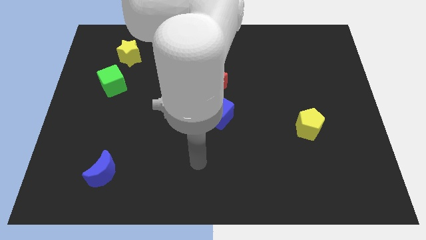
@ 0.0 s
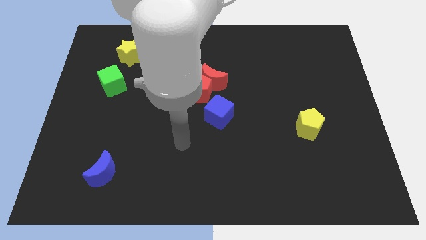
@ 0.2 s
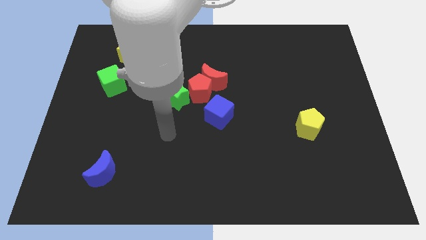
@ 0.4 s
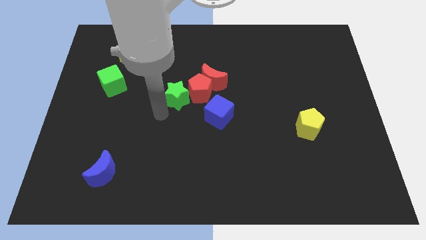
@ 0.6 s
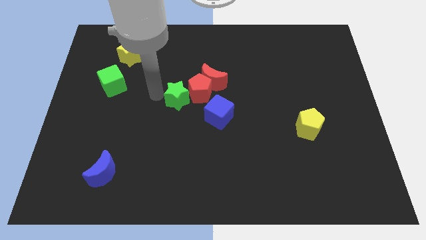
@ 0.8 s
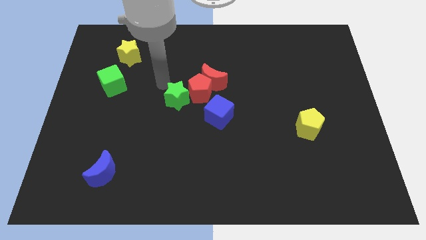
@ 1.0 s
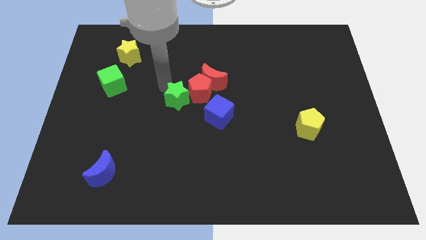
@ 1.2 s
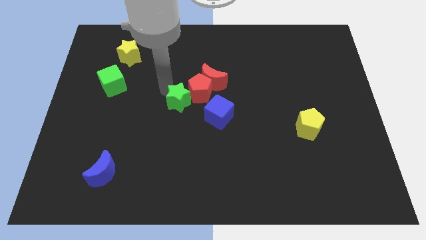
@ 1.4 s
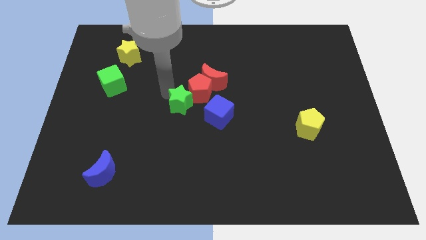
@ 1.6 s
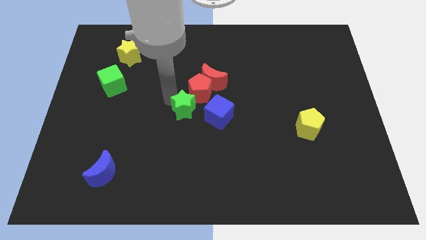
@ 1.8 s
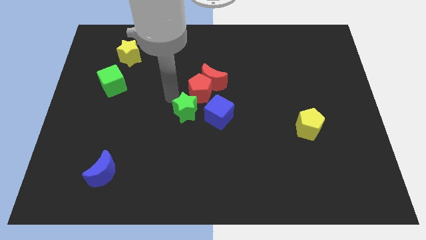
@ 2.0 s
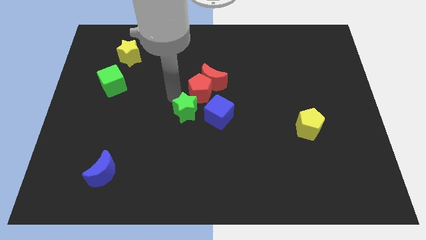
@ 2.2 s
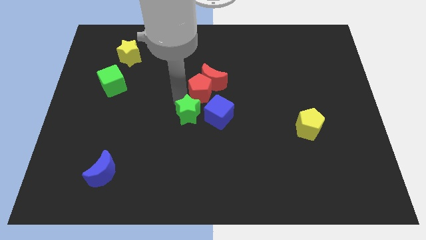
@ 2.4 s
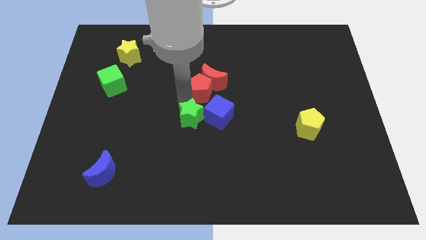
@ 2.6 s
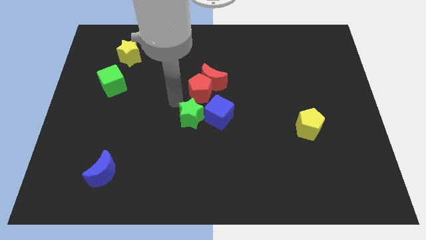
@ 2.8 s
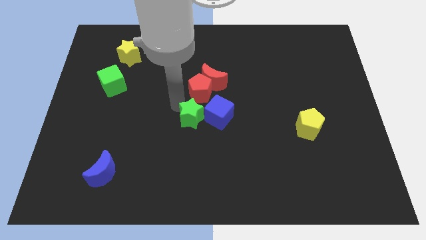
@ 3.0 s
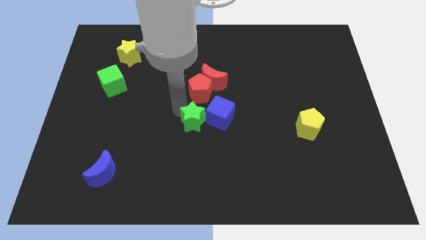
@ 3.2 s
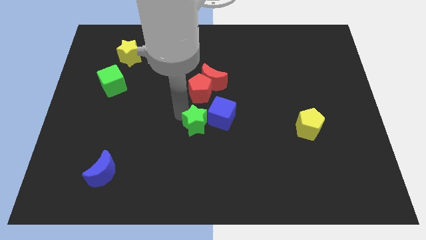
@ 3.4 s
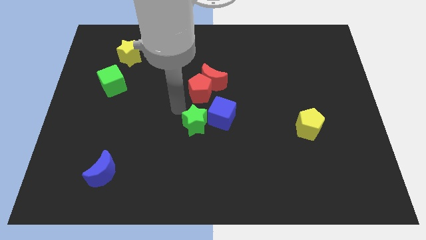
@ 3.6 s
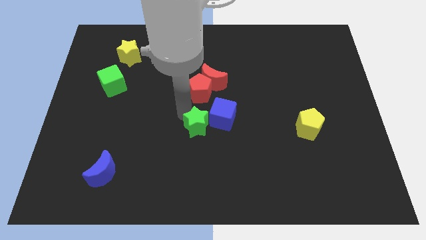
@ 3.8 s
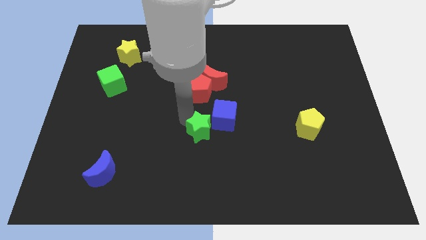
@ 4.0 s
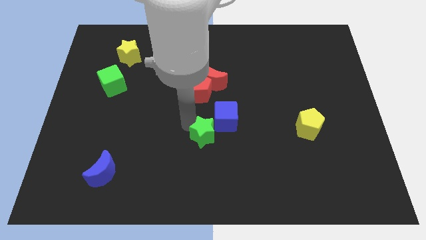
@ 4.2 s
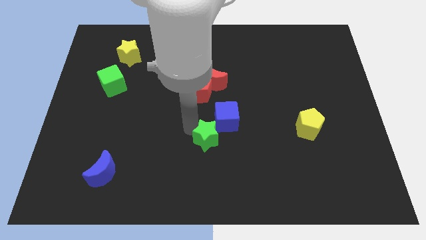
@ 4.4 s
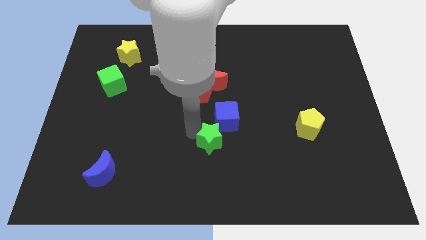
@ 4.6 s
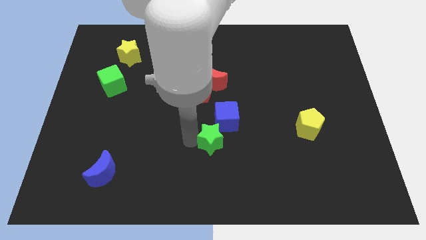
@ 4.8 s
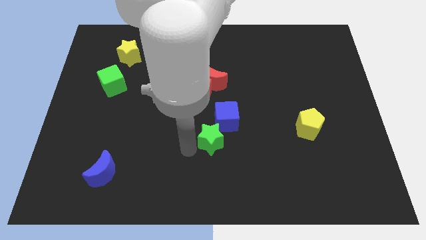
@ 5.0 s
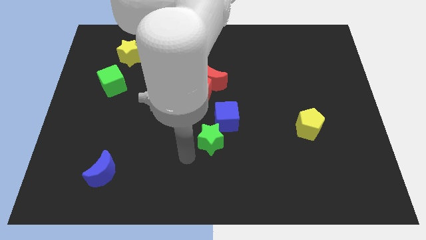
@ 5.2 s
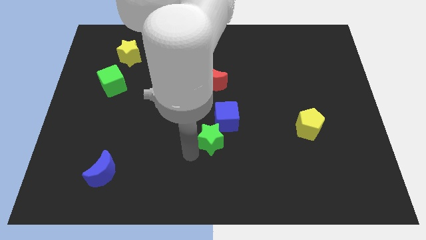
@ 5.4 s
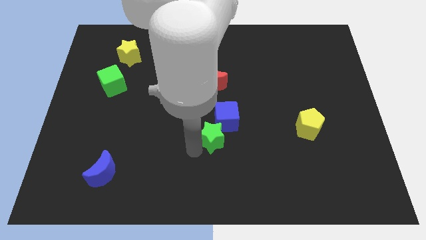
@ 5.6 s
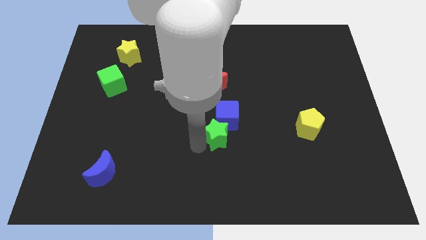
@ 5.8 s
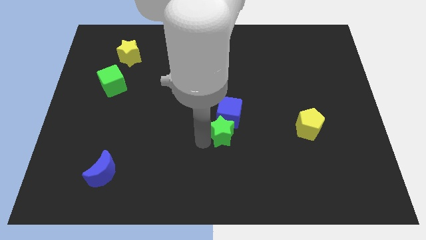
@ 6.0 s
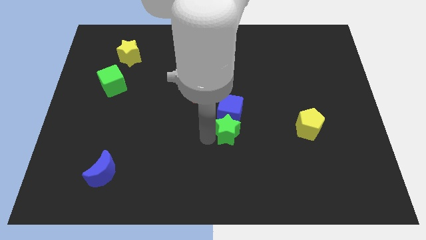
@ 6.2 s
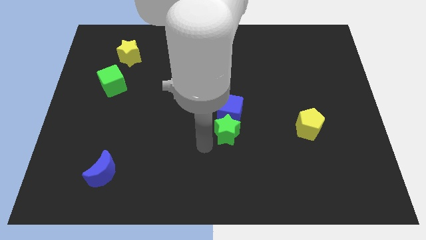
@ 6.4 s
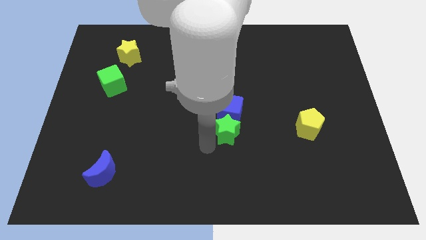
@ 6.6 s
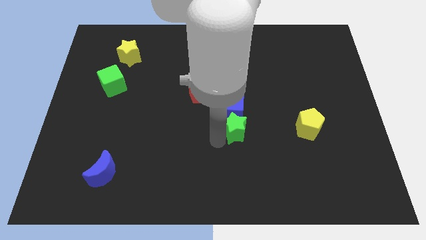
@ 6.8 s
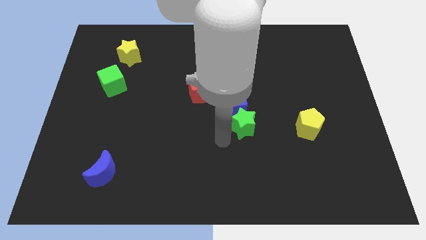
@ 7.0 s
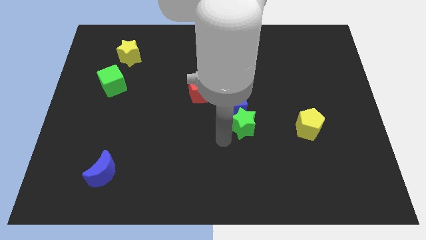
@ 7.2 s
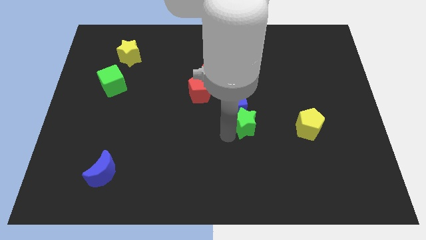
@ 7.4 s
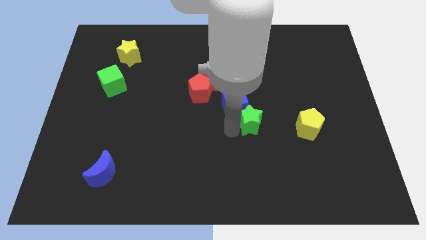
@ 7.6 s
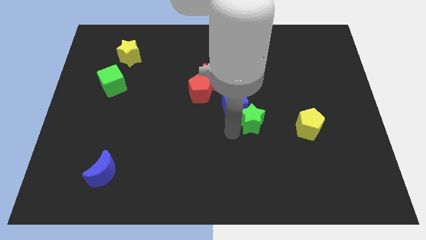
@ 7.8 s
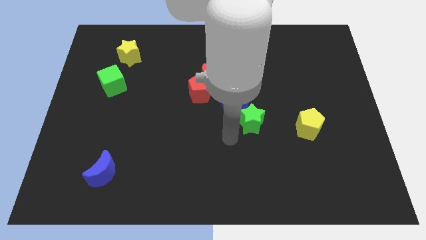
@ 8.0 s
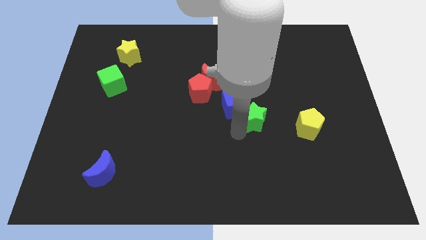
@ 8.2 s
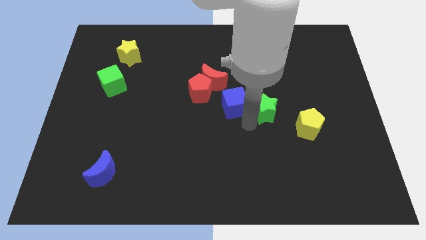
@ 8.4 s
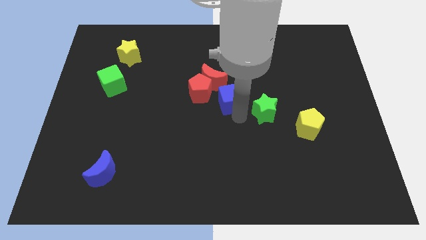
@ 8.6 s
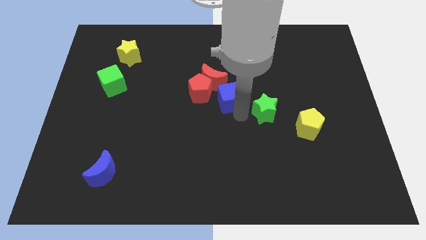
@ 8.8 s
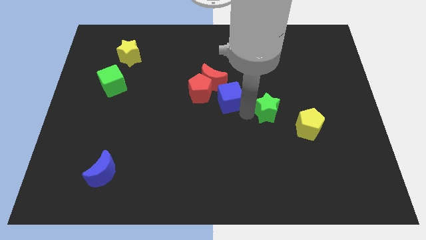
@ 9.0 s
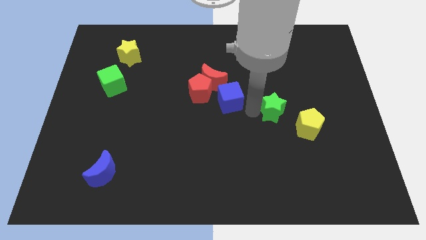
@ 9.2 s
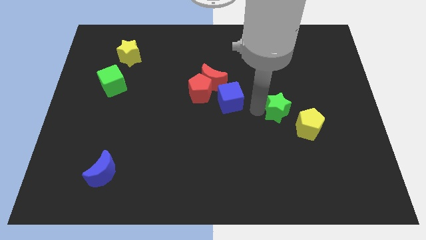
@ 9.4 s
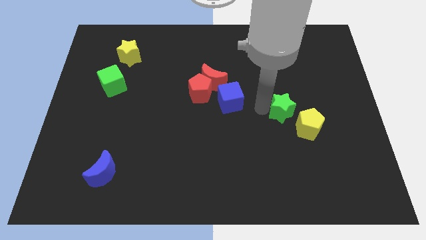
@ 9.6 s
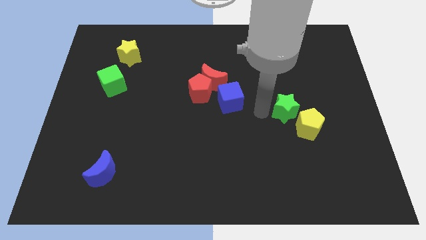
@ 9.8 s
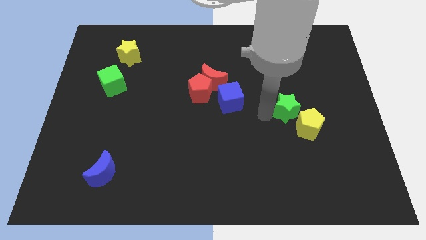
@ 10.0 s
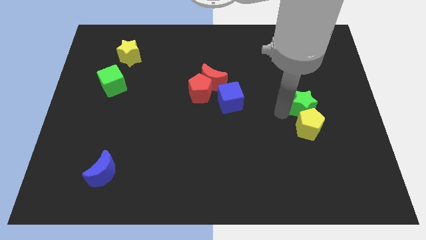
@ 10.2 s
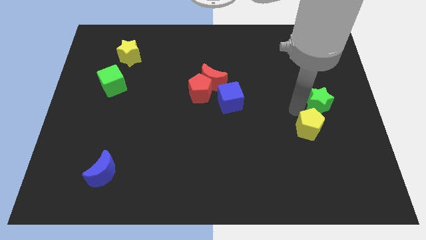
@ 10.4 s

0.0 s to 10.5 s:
put the green star to the center right

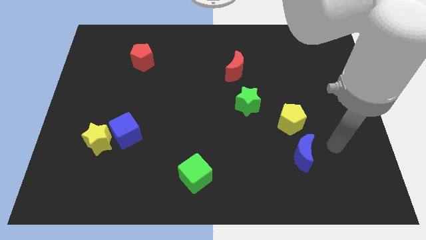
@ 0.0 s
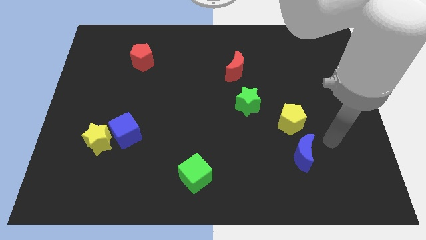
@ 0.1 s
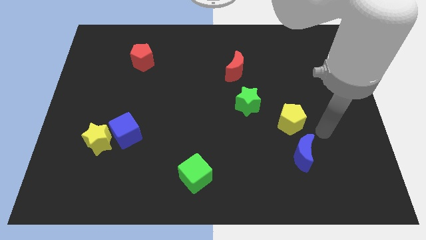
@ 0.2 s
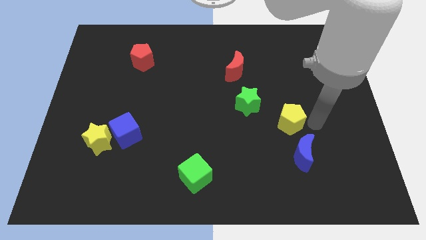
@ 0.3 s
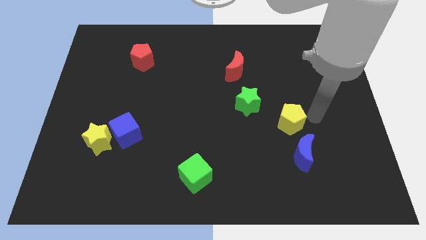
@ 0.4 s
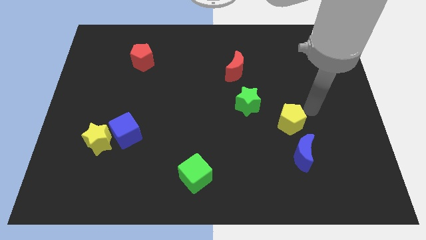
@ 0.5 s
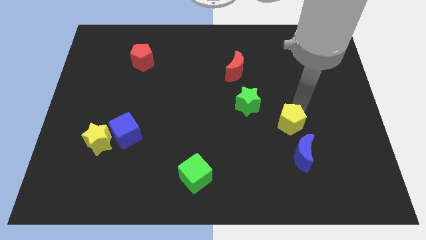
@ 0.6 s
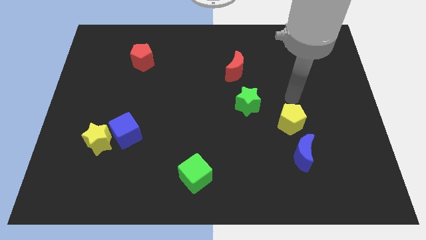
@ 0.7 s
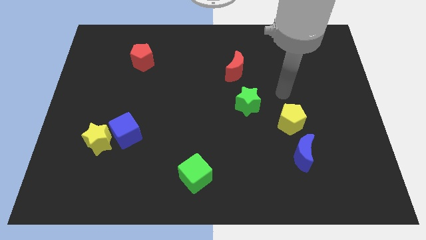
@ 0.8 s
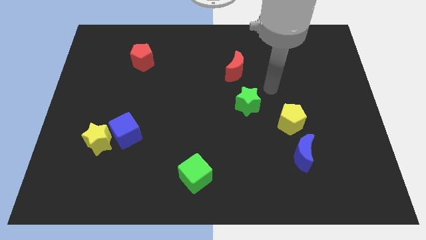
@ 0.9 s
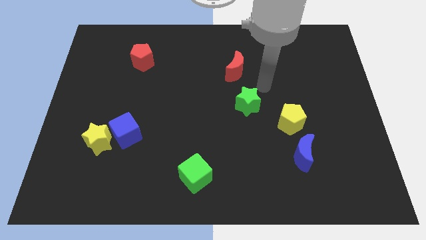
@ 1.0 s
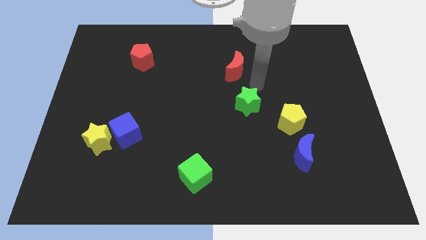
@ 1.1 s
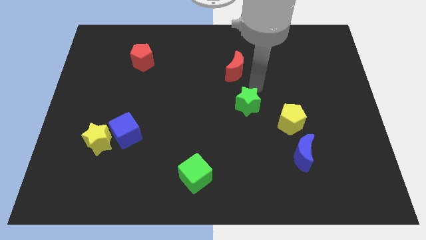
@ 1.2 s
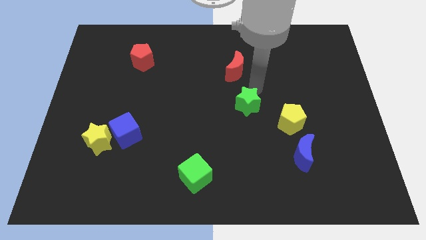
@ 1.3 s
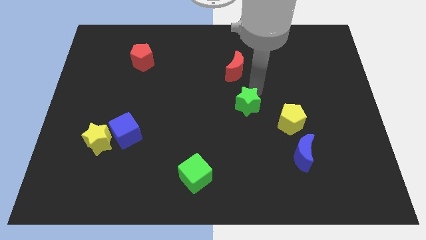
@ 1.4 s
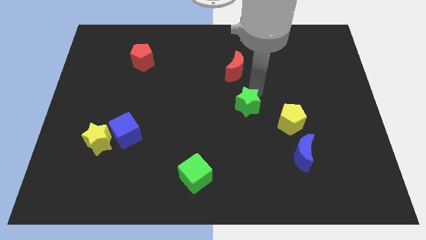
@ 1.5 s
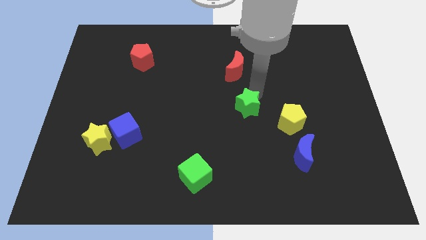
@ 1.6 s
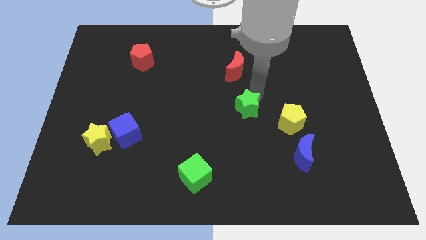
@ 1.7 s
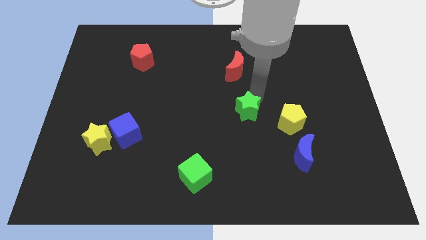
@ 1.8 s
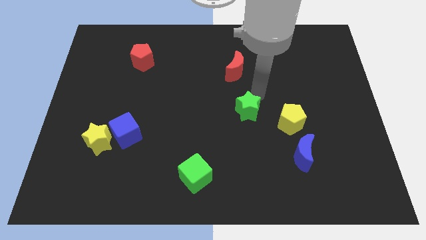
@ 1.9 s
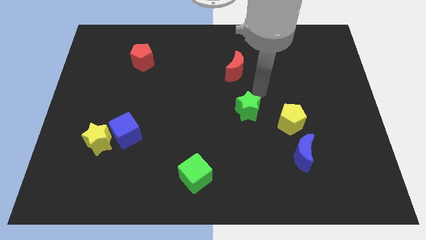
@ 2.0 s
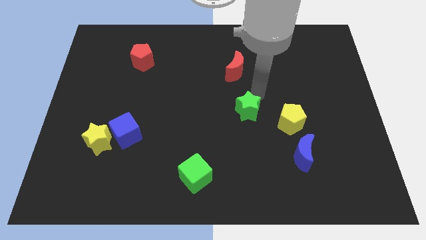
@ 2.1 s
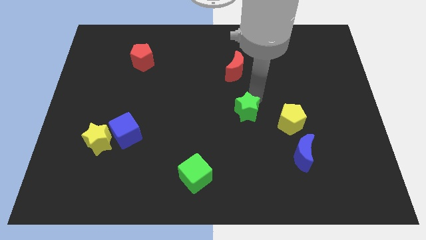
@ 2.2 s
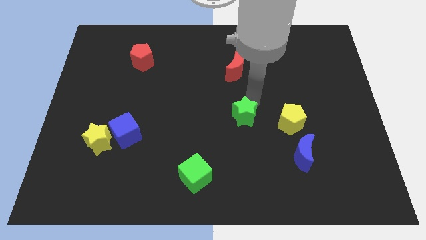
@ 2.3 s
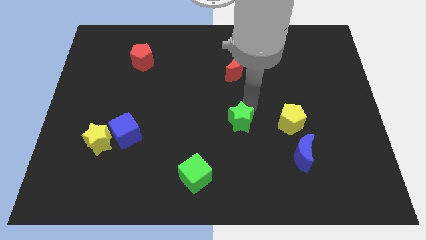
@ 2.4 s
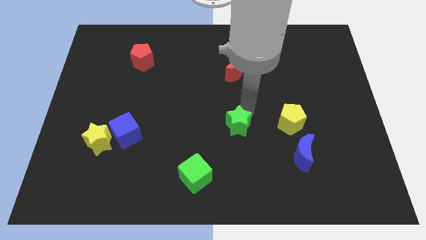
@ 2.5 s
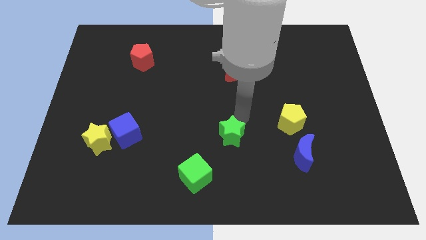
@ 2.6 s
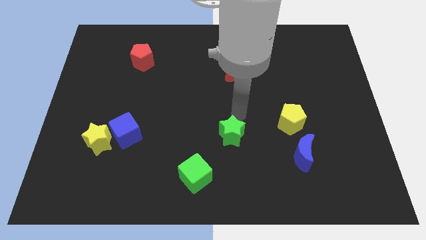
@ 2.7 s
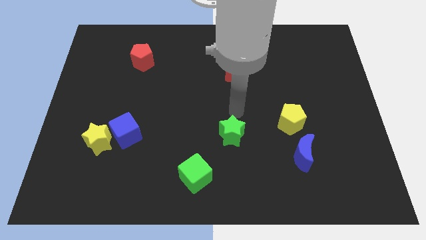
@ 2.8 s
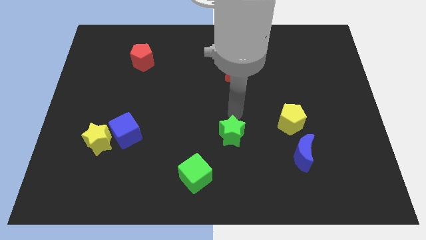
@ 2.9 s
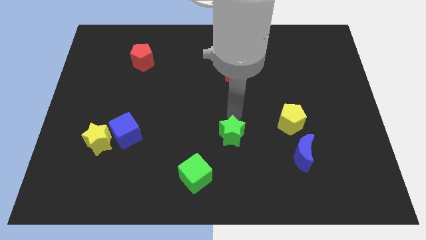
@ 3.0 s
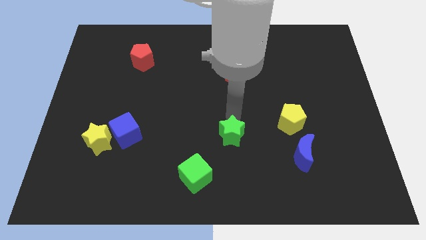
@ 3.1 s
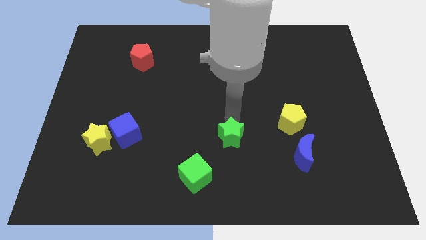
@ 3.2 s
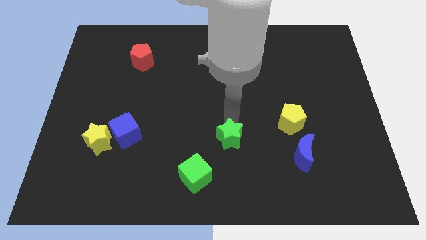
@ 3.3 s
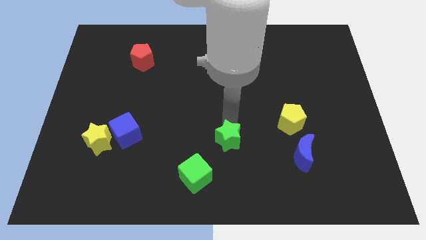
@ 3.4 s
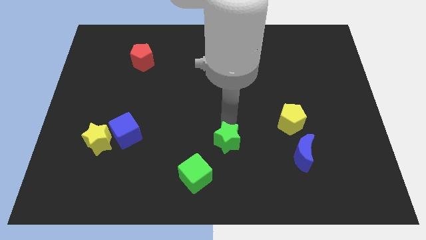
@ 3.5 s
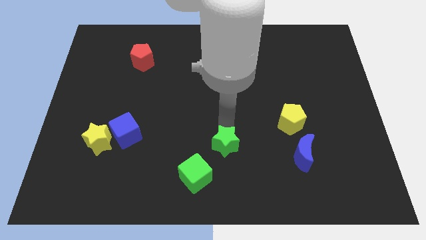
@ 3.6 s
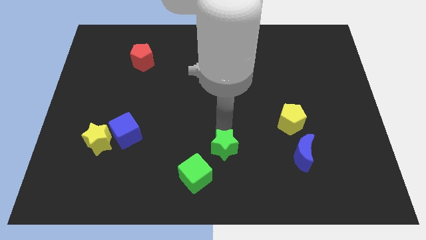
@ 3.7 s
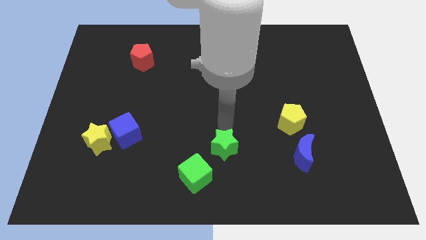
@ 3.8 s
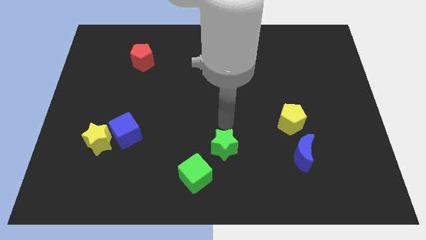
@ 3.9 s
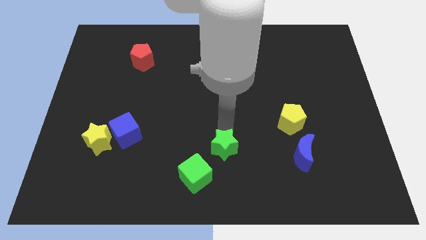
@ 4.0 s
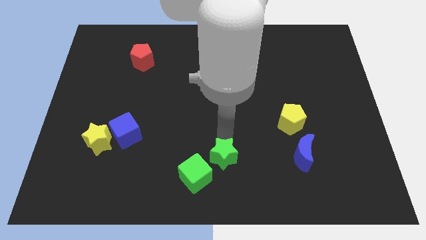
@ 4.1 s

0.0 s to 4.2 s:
put the green star to the bottom side
